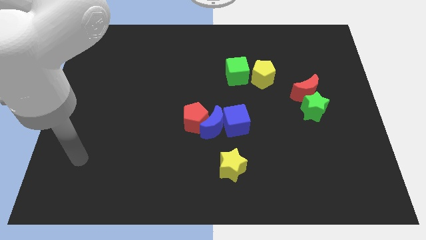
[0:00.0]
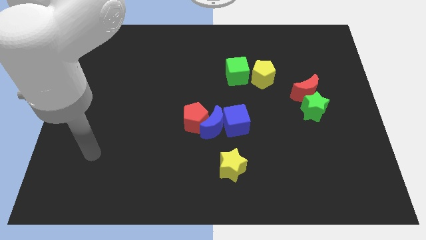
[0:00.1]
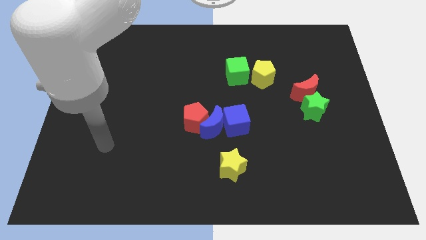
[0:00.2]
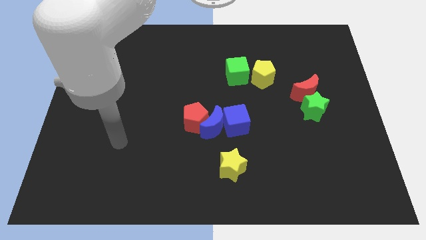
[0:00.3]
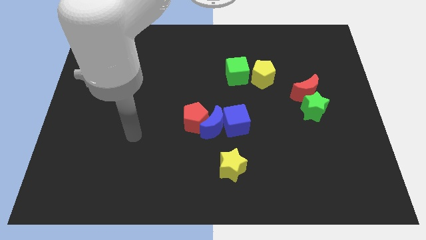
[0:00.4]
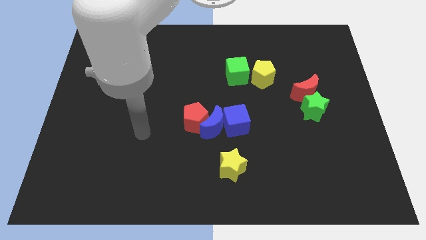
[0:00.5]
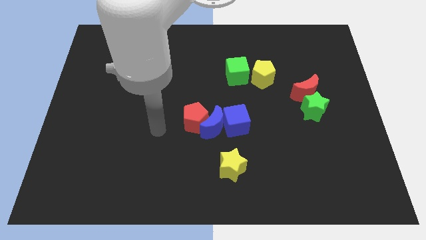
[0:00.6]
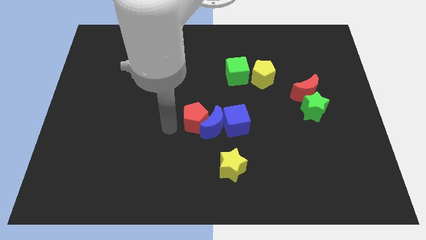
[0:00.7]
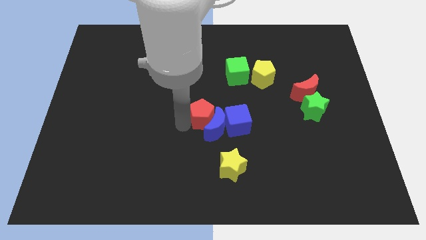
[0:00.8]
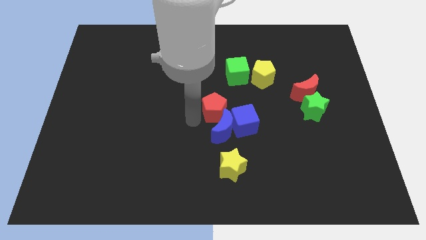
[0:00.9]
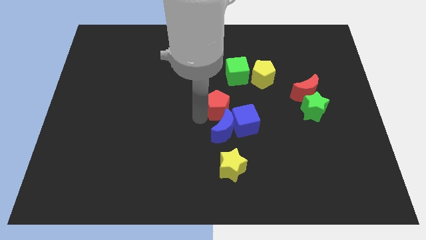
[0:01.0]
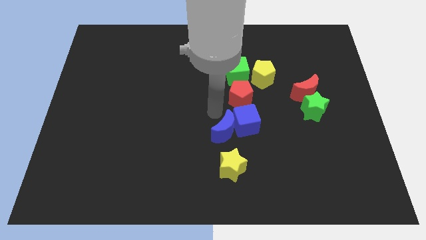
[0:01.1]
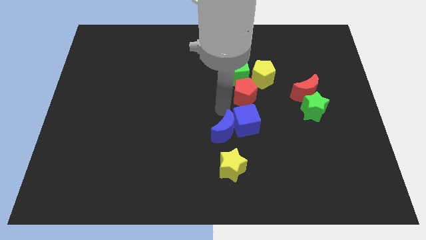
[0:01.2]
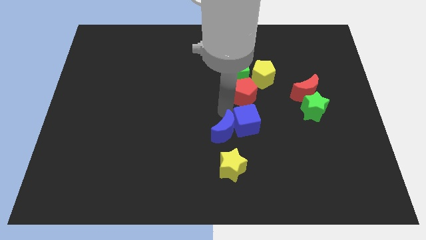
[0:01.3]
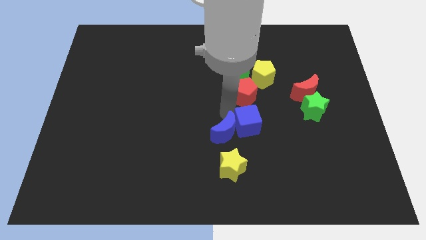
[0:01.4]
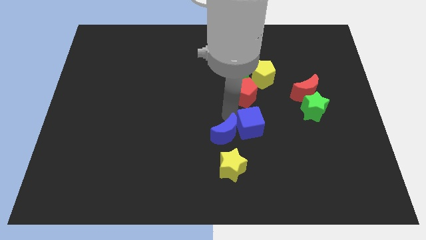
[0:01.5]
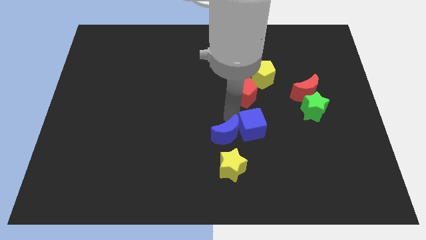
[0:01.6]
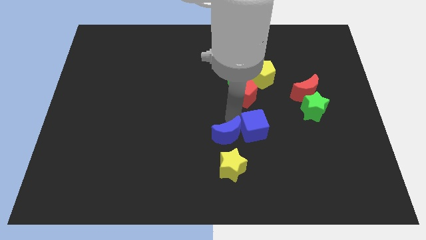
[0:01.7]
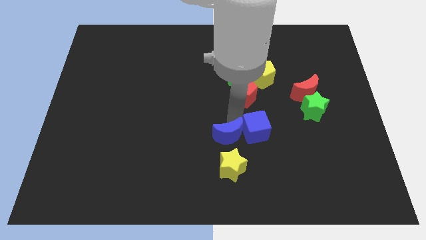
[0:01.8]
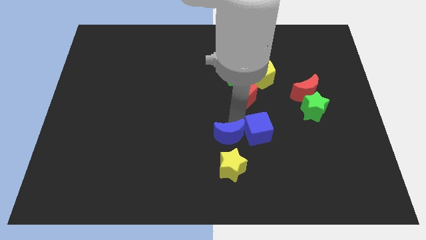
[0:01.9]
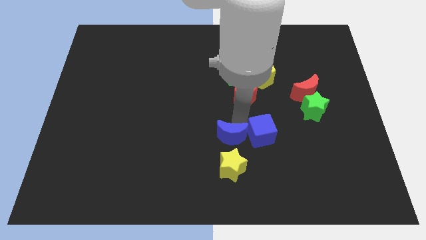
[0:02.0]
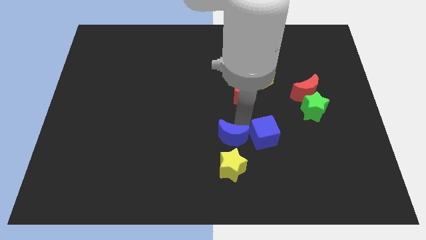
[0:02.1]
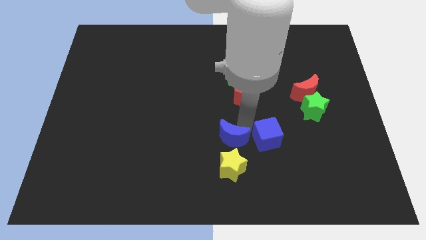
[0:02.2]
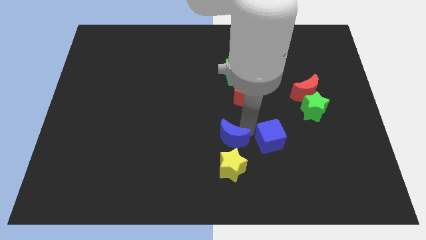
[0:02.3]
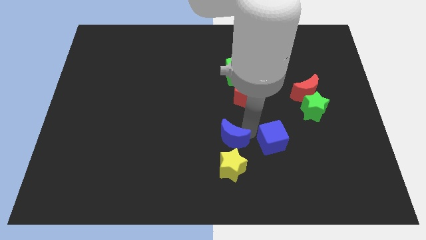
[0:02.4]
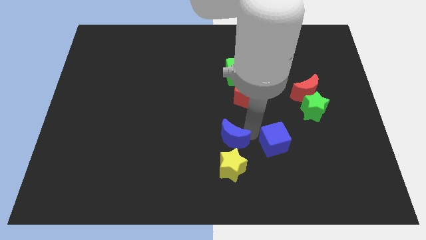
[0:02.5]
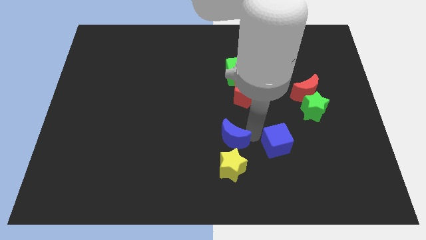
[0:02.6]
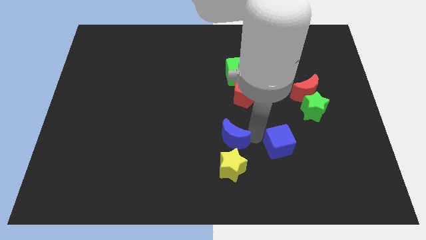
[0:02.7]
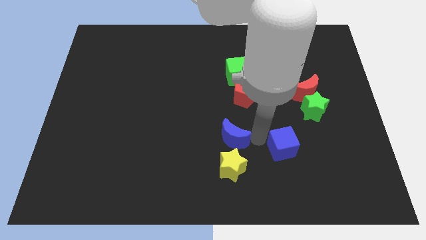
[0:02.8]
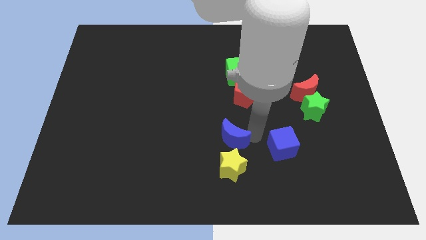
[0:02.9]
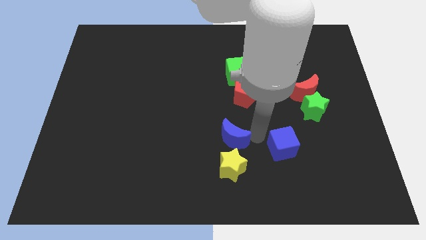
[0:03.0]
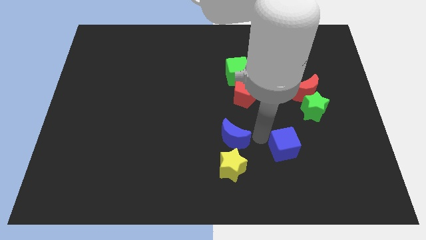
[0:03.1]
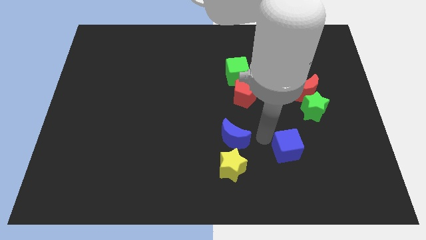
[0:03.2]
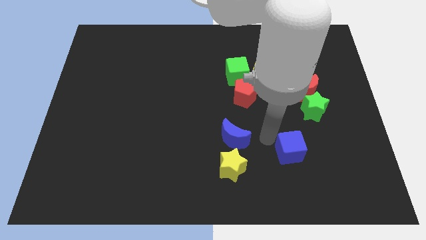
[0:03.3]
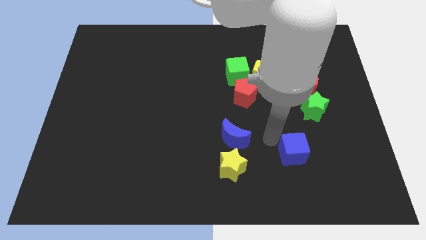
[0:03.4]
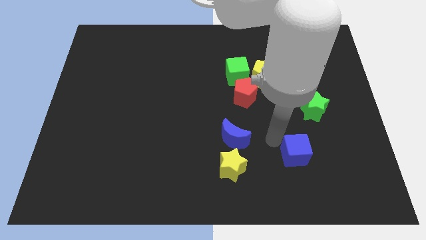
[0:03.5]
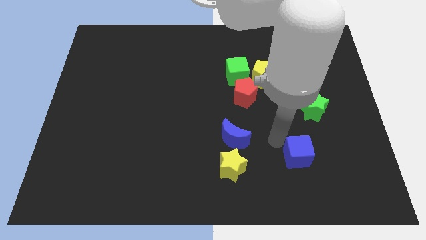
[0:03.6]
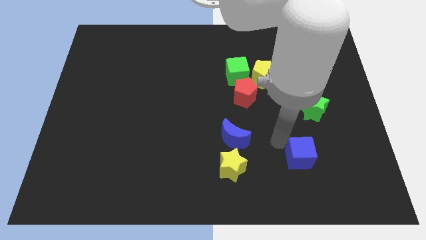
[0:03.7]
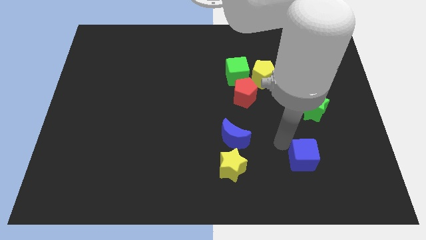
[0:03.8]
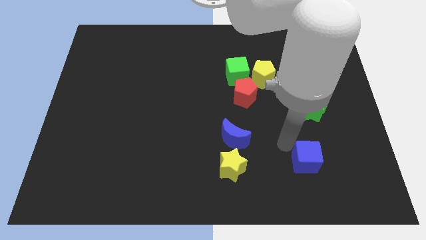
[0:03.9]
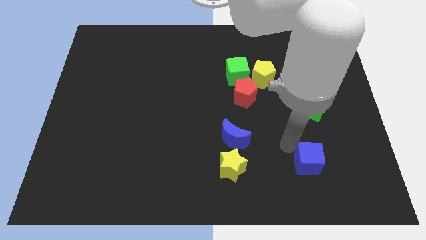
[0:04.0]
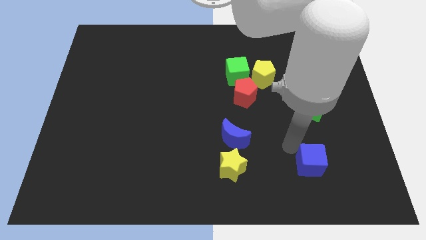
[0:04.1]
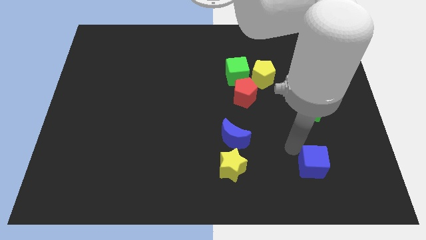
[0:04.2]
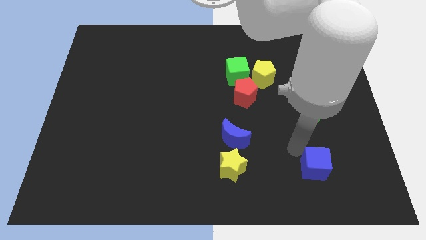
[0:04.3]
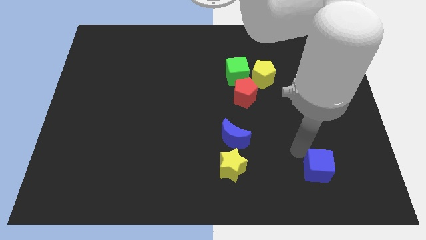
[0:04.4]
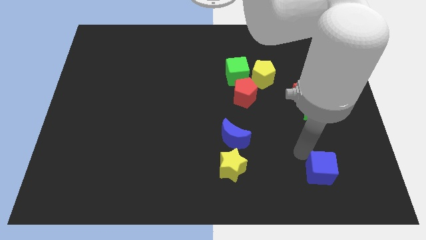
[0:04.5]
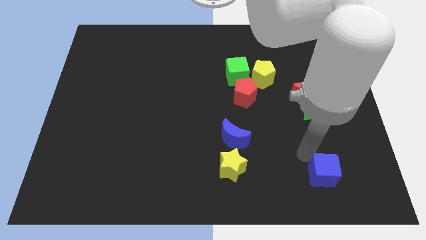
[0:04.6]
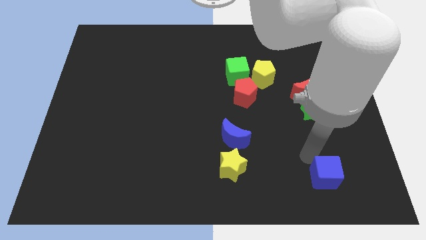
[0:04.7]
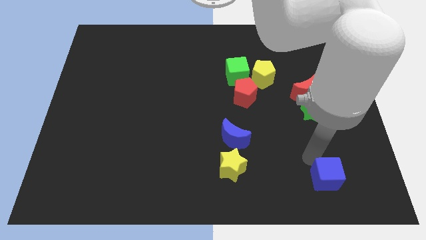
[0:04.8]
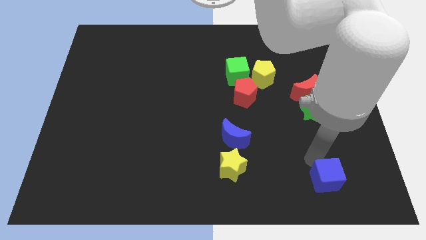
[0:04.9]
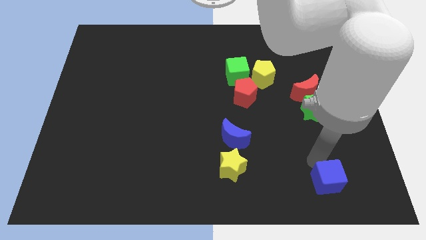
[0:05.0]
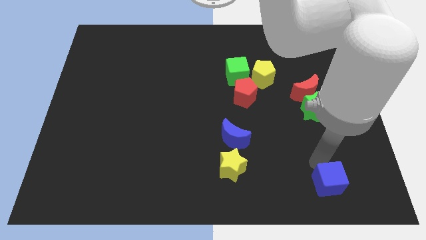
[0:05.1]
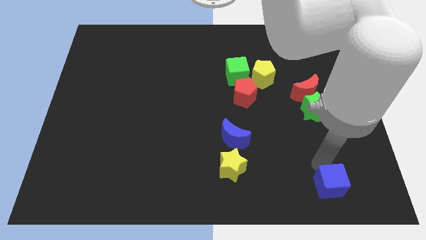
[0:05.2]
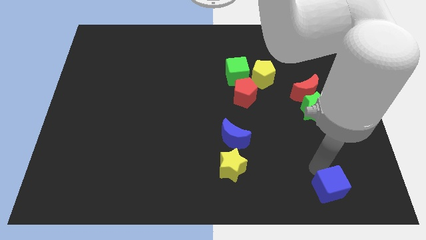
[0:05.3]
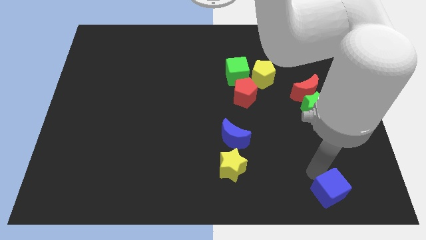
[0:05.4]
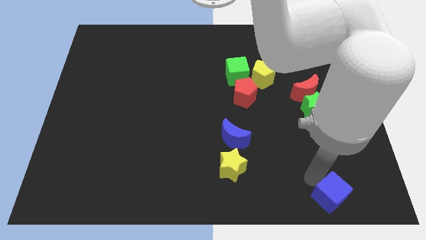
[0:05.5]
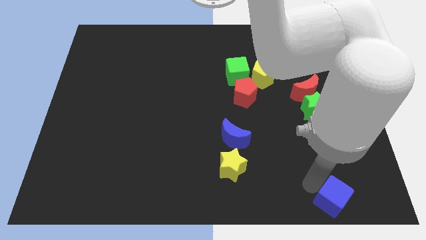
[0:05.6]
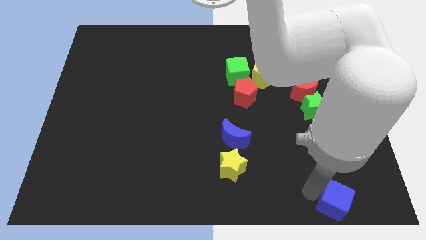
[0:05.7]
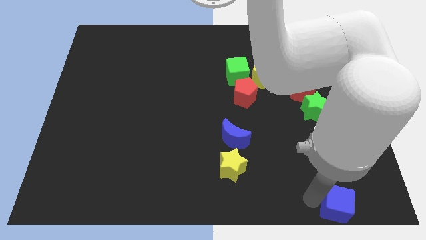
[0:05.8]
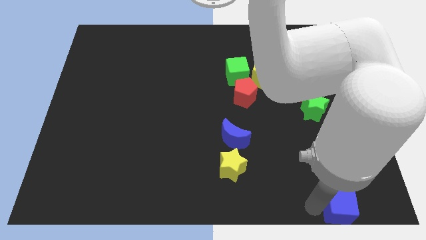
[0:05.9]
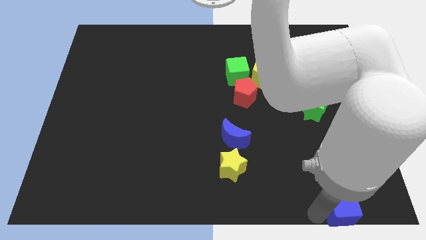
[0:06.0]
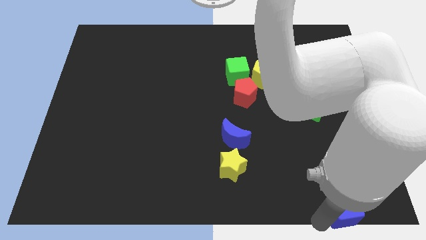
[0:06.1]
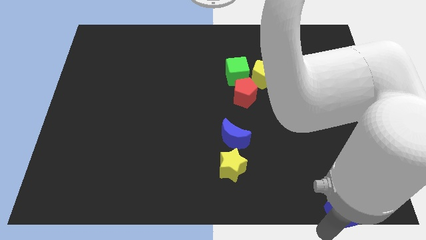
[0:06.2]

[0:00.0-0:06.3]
move the blue cube to the lower right corner

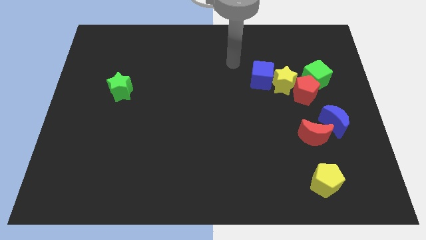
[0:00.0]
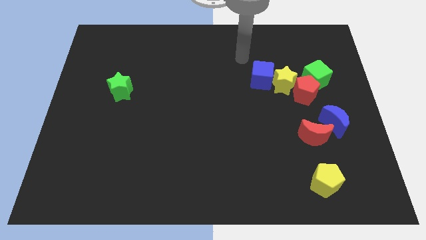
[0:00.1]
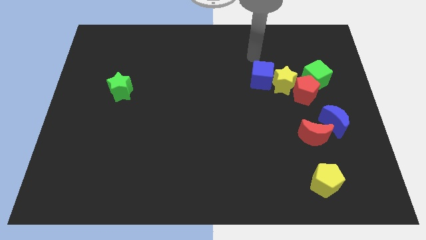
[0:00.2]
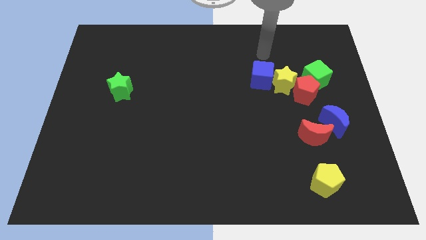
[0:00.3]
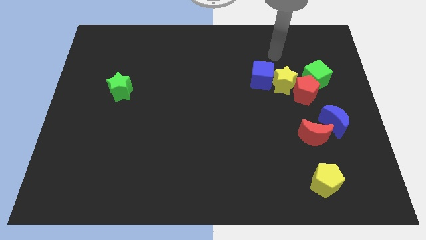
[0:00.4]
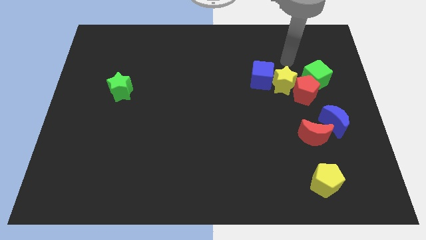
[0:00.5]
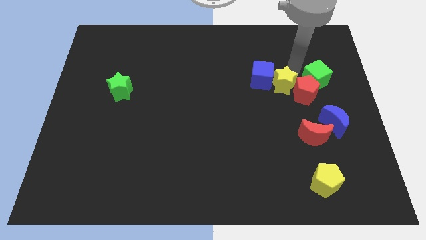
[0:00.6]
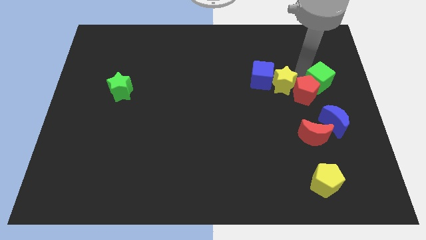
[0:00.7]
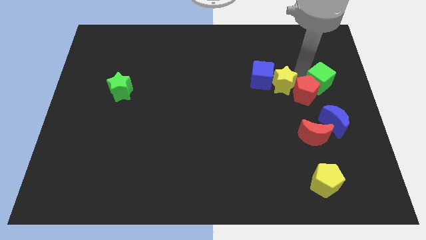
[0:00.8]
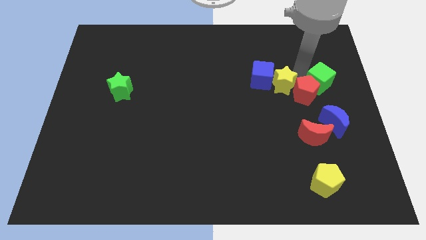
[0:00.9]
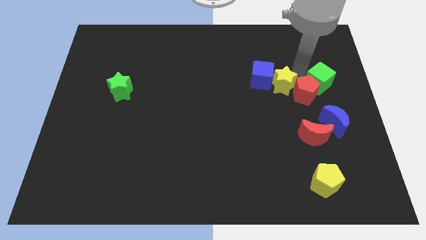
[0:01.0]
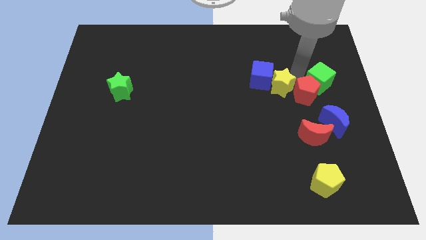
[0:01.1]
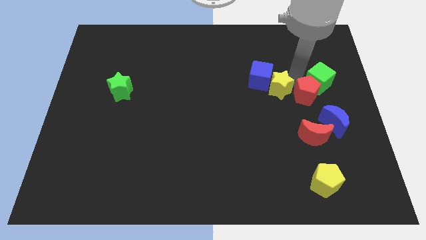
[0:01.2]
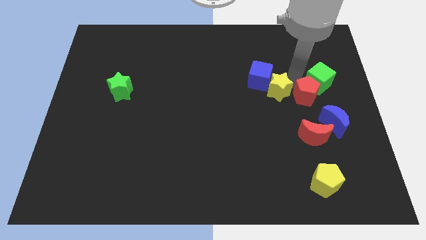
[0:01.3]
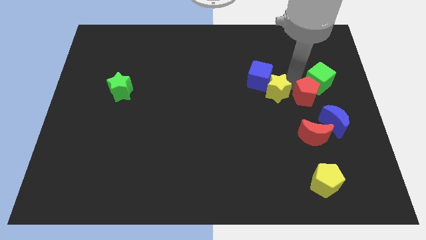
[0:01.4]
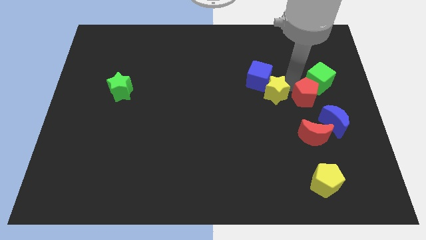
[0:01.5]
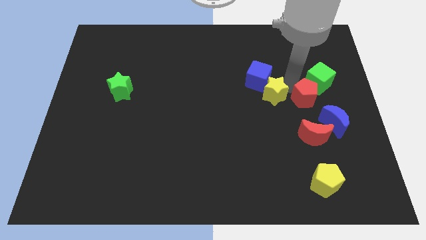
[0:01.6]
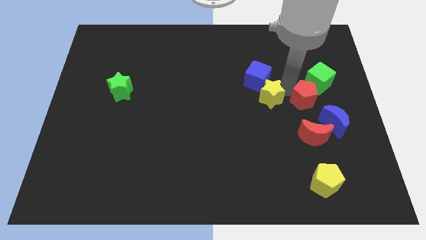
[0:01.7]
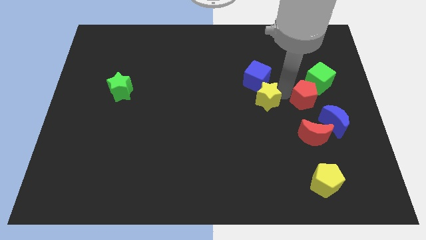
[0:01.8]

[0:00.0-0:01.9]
push the yellow star to the center of the board
